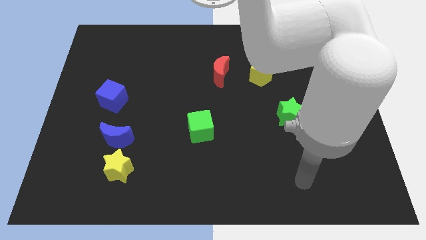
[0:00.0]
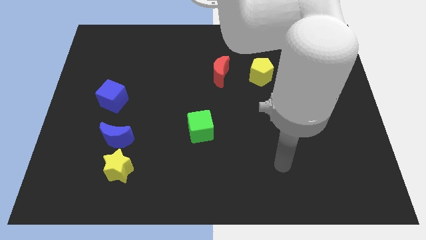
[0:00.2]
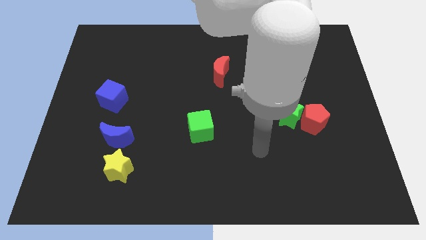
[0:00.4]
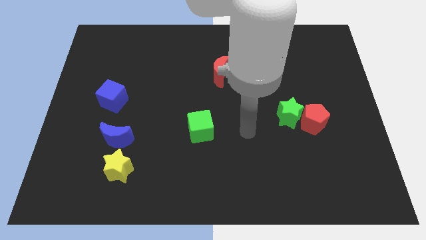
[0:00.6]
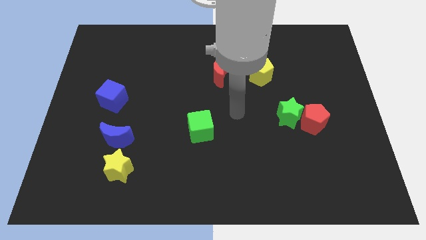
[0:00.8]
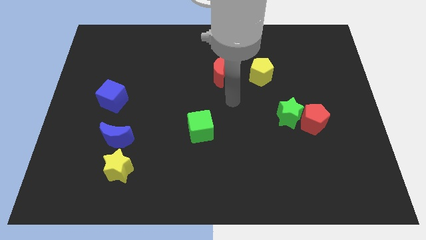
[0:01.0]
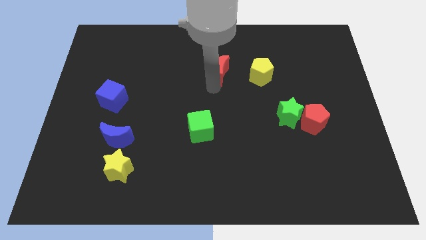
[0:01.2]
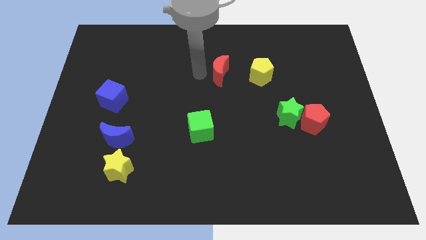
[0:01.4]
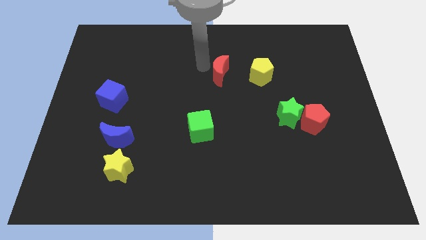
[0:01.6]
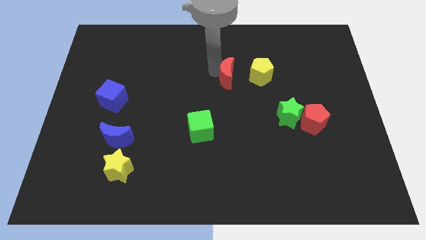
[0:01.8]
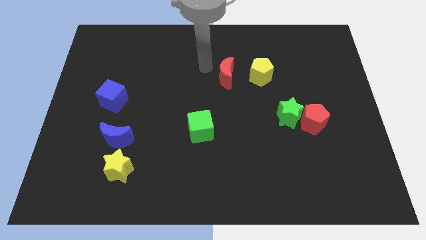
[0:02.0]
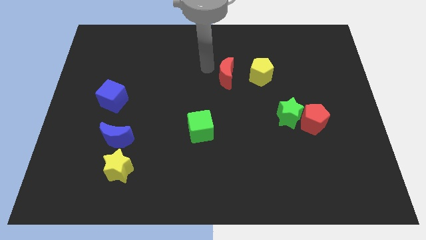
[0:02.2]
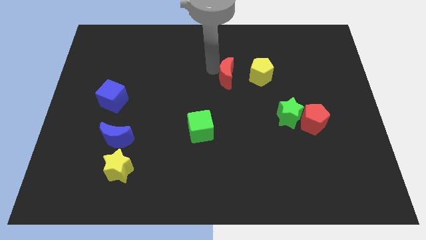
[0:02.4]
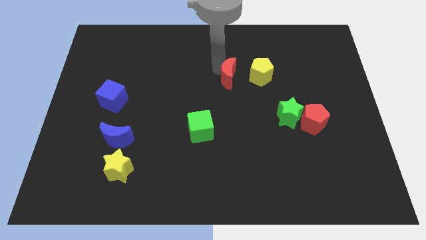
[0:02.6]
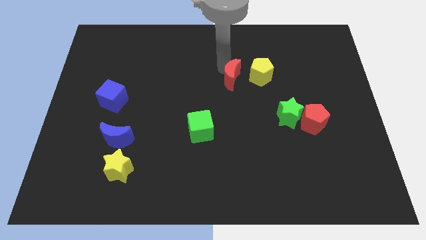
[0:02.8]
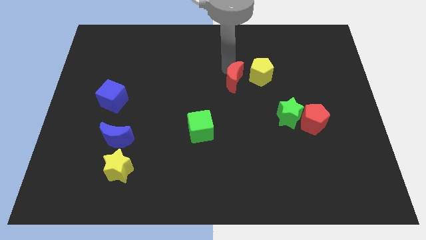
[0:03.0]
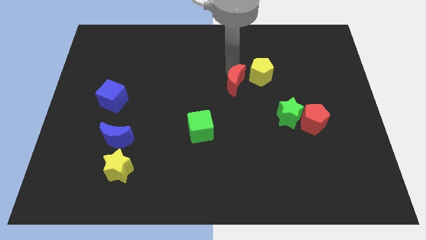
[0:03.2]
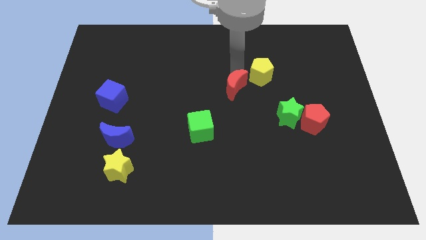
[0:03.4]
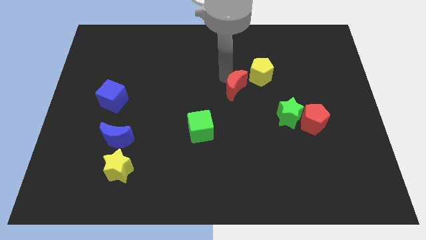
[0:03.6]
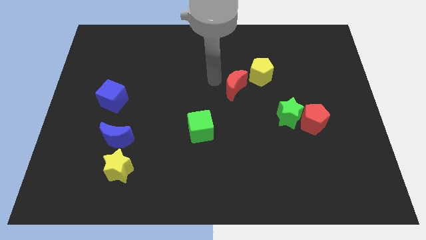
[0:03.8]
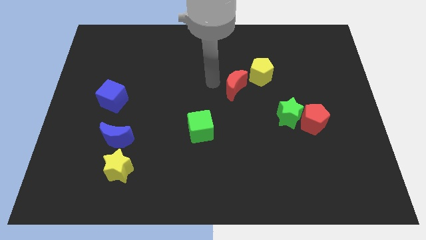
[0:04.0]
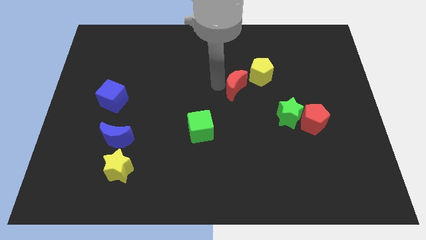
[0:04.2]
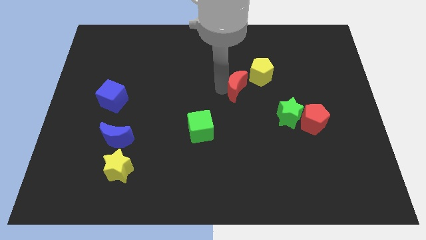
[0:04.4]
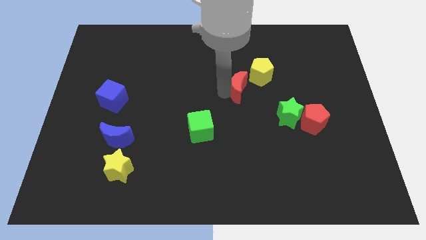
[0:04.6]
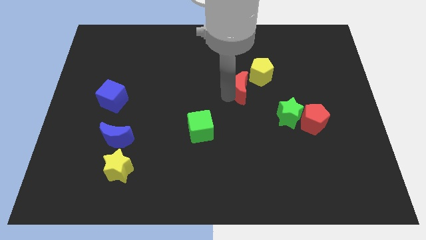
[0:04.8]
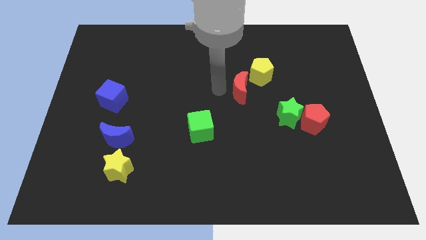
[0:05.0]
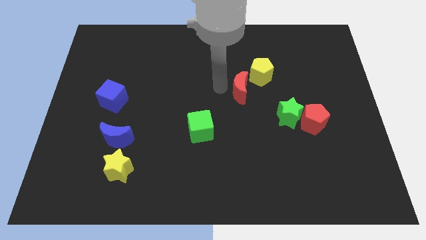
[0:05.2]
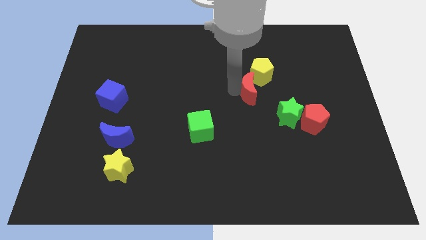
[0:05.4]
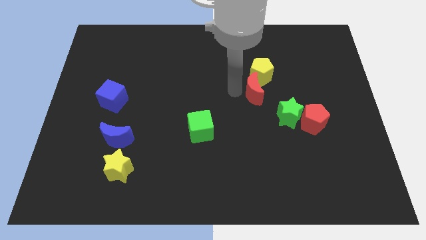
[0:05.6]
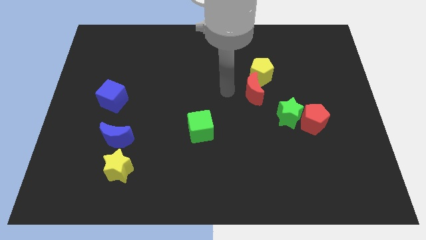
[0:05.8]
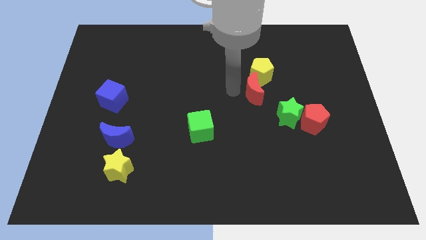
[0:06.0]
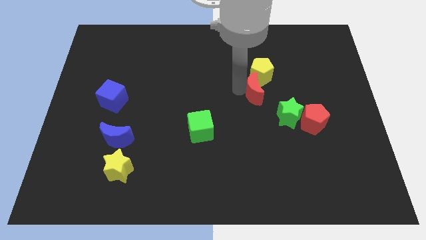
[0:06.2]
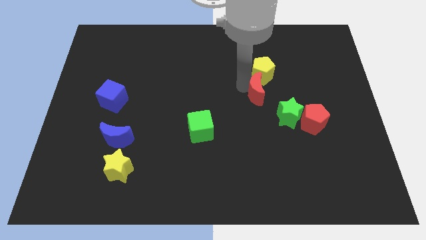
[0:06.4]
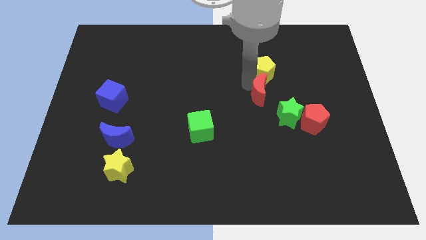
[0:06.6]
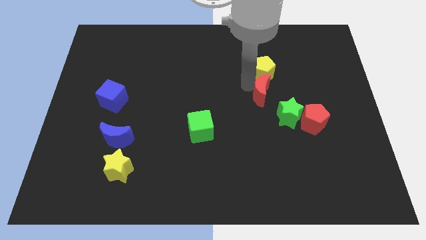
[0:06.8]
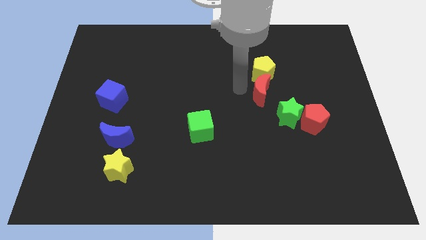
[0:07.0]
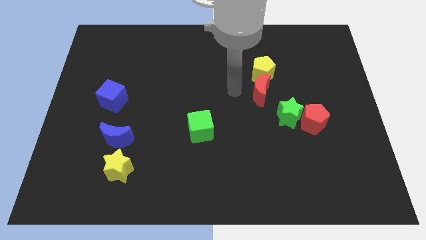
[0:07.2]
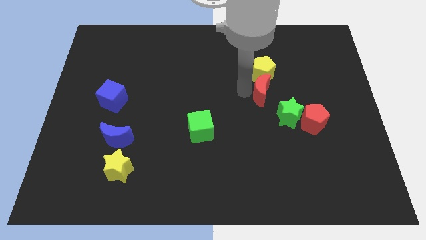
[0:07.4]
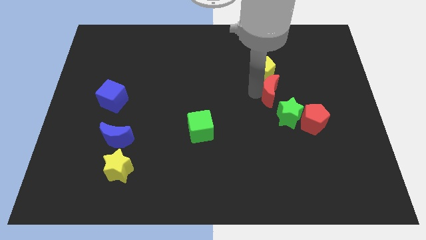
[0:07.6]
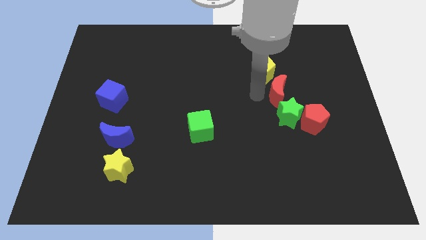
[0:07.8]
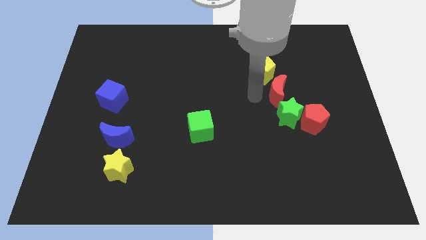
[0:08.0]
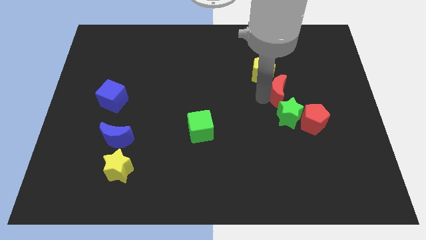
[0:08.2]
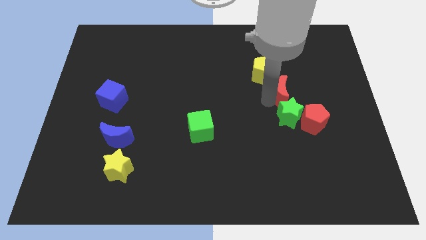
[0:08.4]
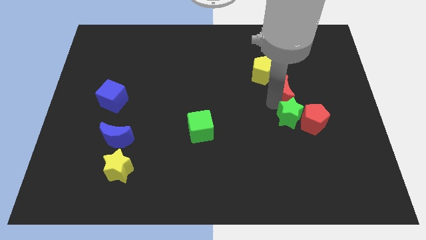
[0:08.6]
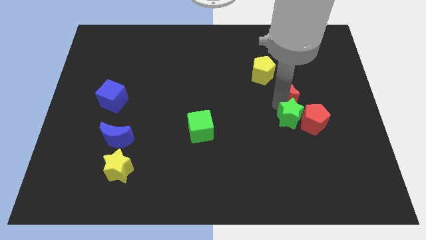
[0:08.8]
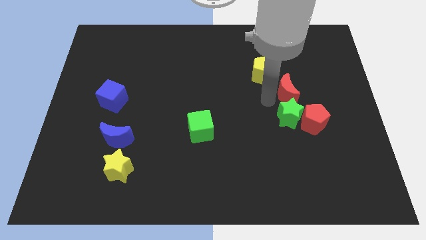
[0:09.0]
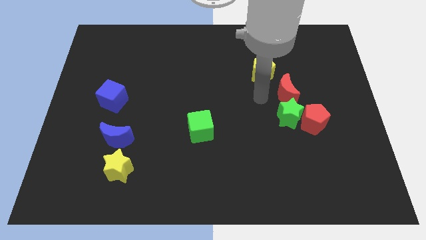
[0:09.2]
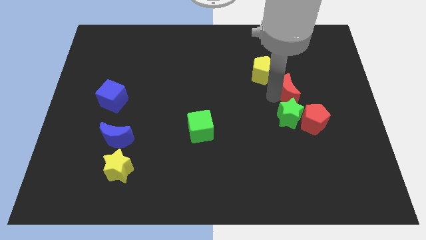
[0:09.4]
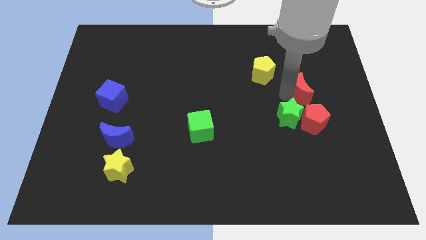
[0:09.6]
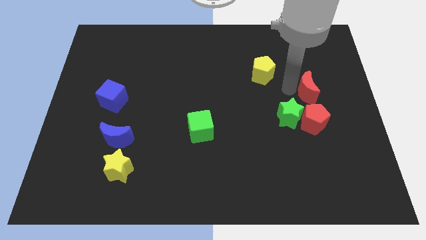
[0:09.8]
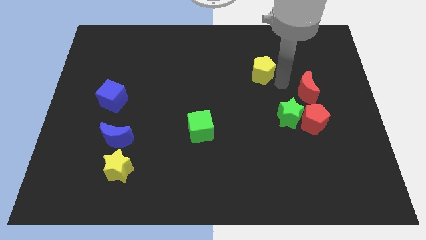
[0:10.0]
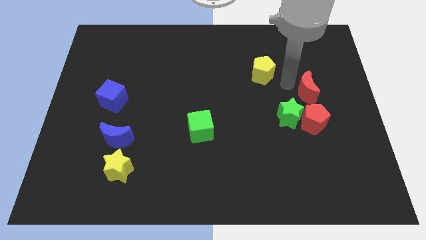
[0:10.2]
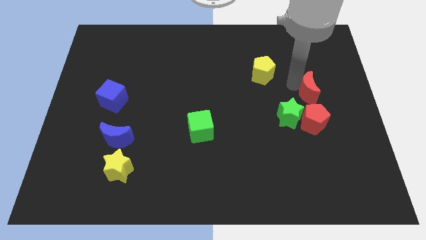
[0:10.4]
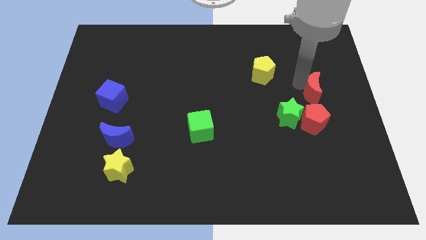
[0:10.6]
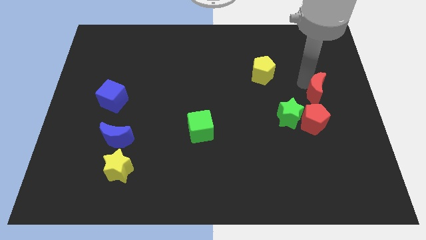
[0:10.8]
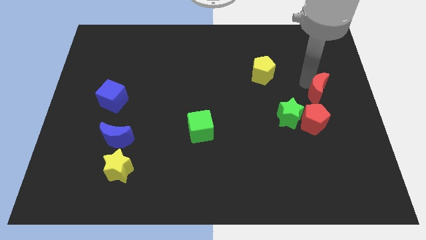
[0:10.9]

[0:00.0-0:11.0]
put the red moon to the right side of the board

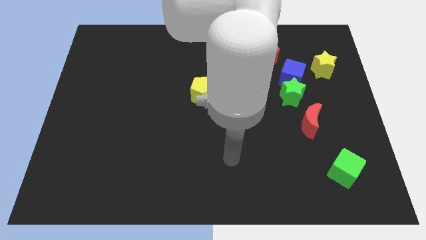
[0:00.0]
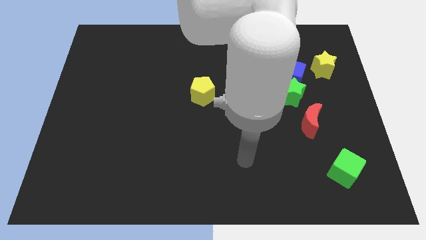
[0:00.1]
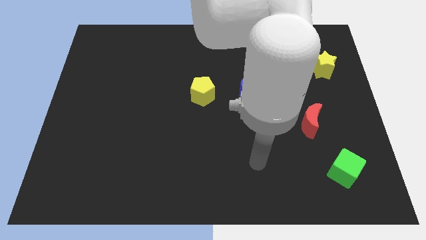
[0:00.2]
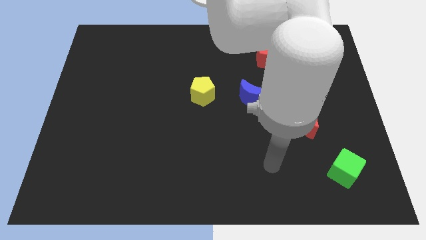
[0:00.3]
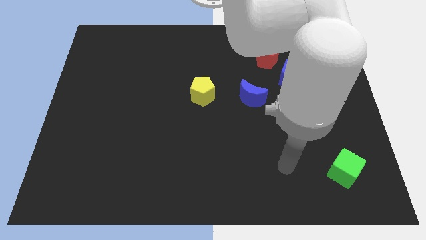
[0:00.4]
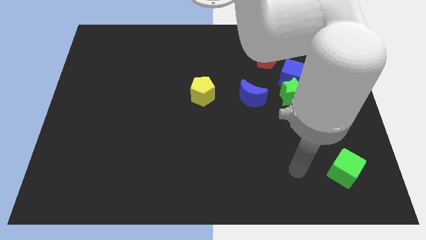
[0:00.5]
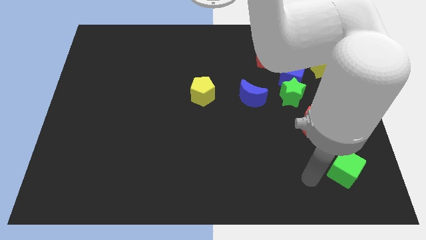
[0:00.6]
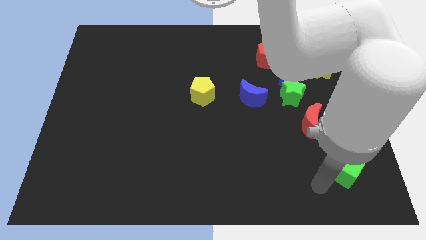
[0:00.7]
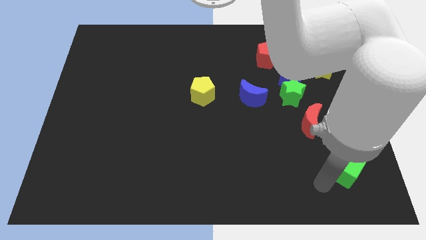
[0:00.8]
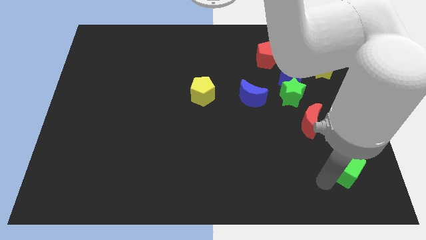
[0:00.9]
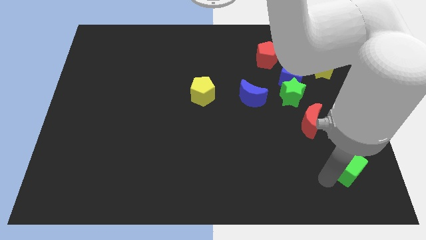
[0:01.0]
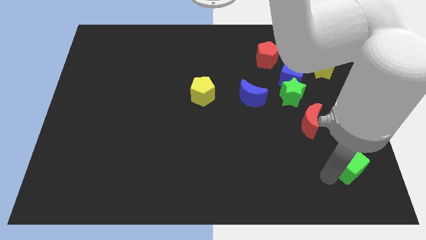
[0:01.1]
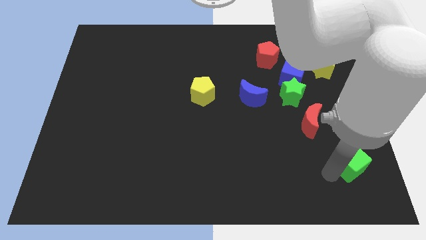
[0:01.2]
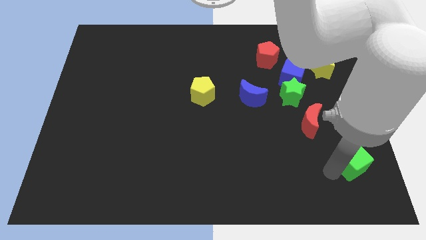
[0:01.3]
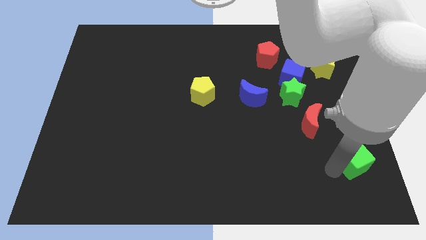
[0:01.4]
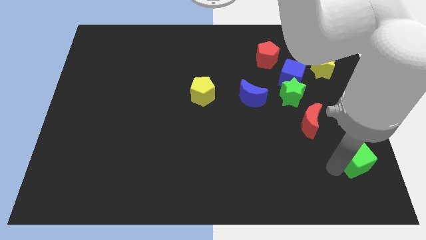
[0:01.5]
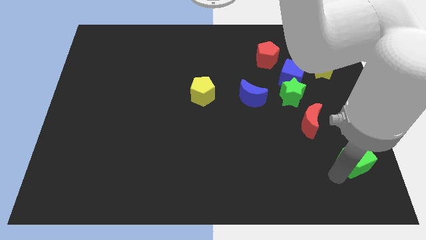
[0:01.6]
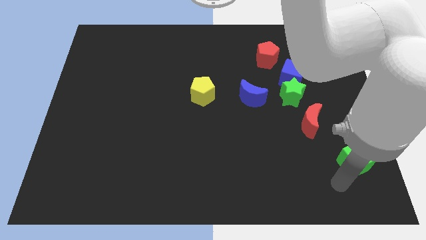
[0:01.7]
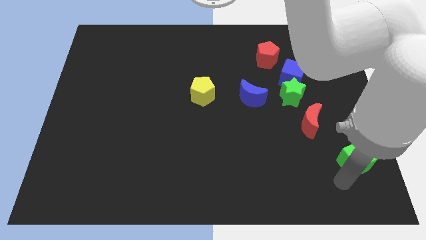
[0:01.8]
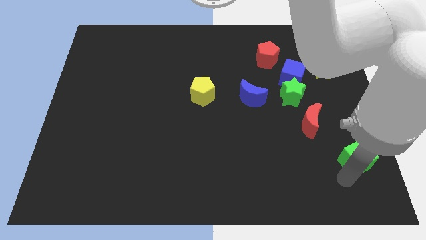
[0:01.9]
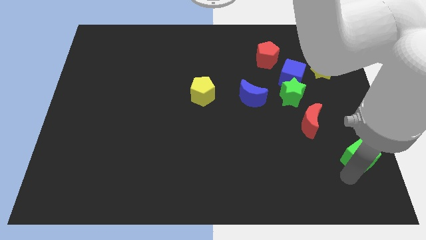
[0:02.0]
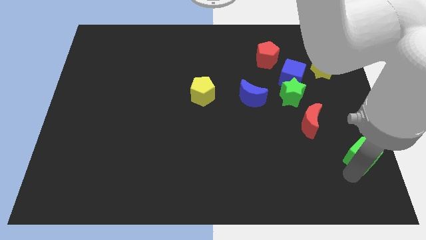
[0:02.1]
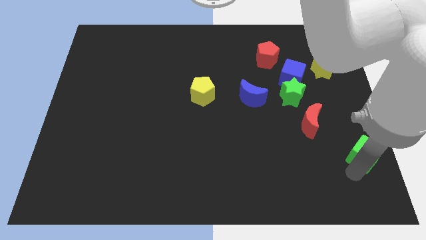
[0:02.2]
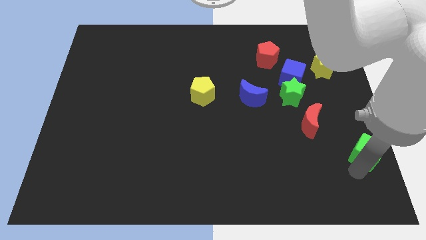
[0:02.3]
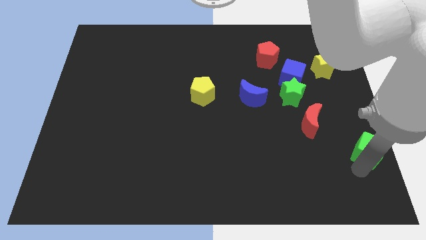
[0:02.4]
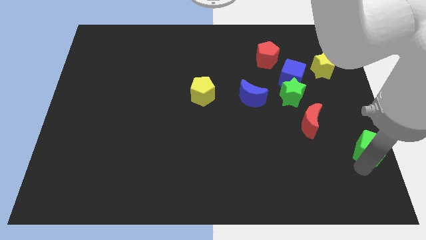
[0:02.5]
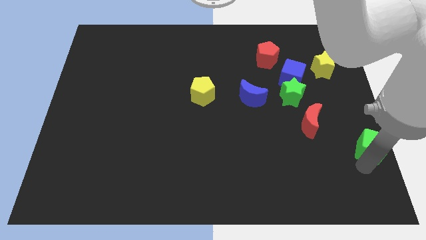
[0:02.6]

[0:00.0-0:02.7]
push the green cube to the right side
